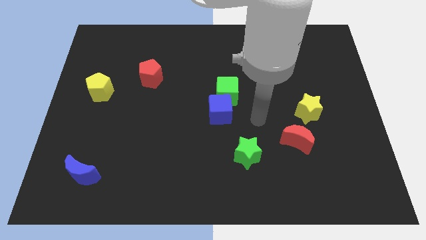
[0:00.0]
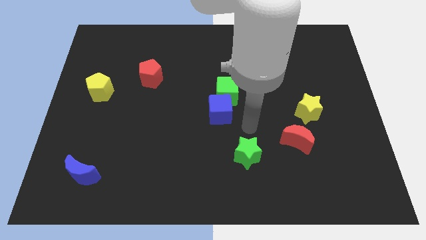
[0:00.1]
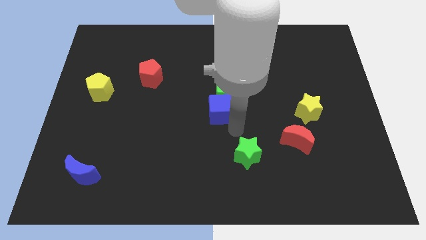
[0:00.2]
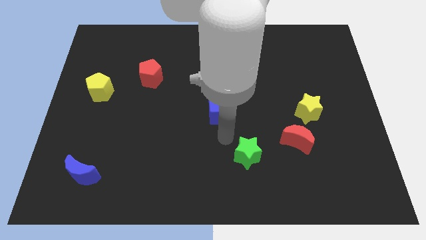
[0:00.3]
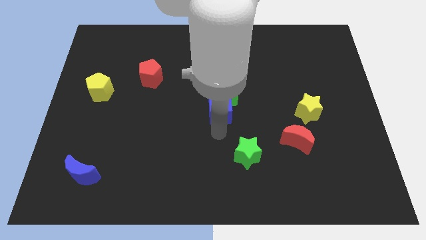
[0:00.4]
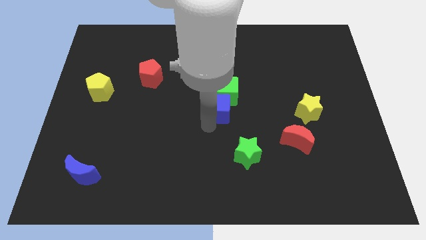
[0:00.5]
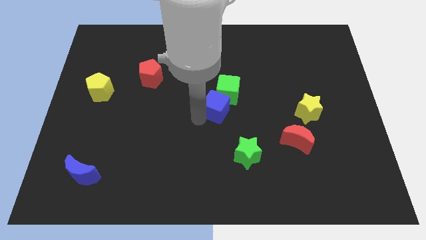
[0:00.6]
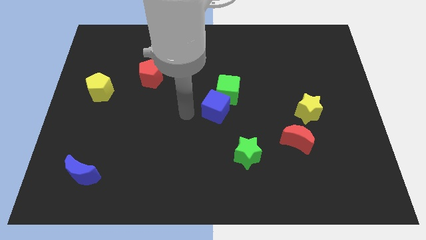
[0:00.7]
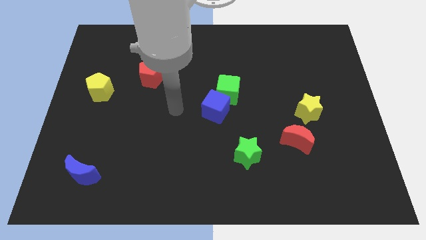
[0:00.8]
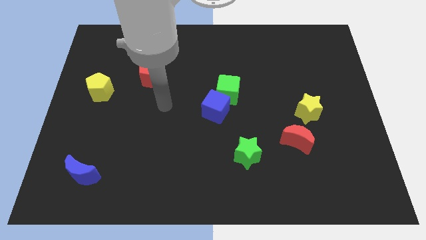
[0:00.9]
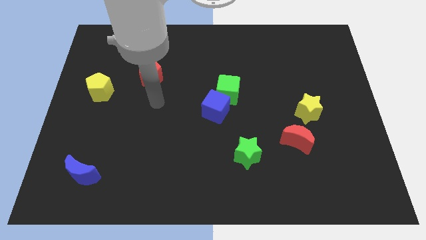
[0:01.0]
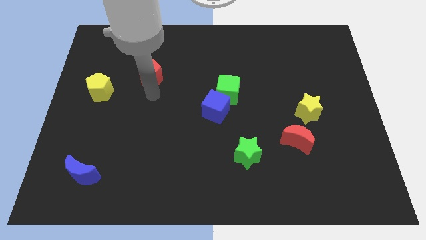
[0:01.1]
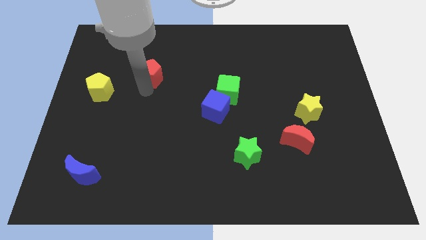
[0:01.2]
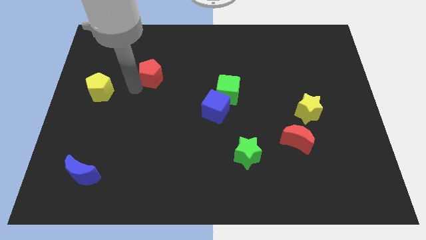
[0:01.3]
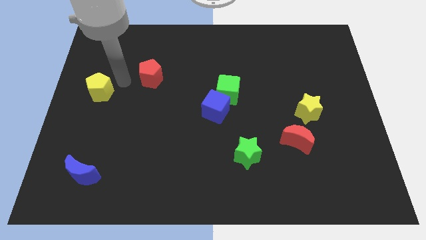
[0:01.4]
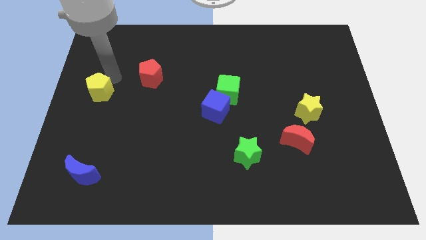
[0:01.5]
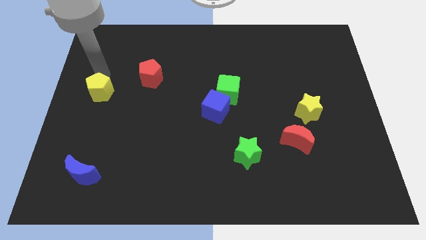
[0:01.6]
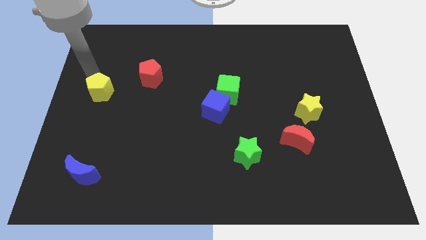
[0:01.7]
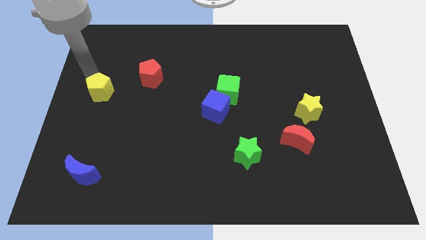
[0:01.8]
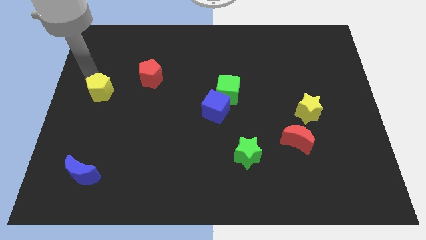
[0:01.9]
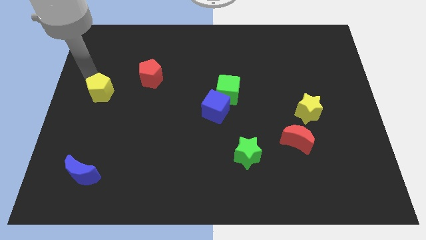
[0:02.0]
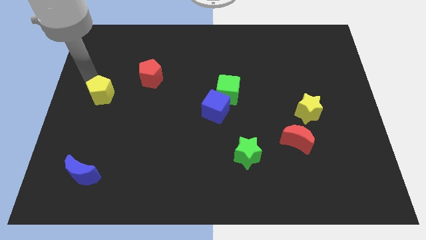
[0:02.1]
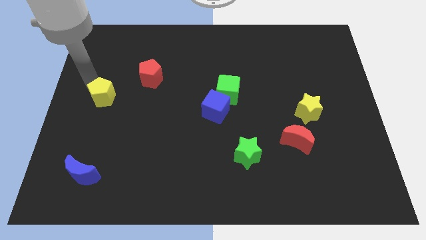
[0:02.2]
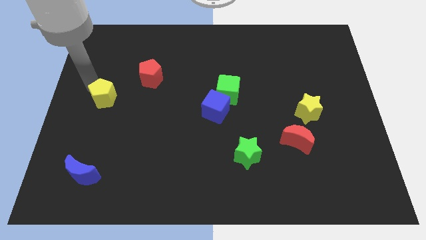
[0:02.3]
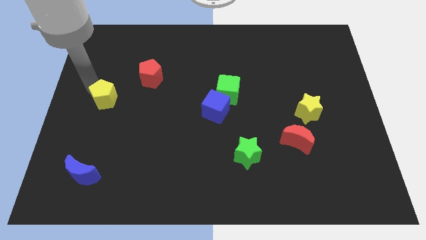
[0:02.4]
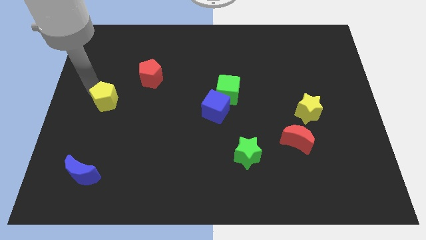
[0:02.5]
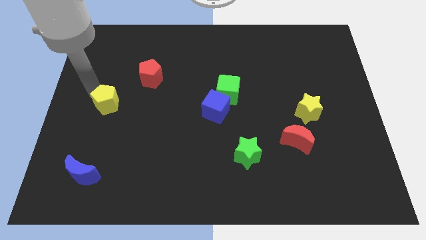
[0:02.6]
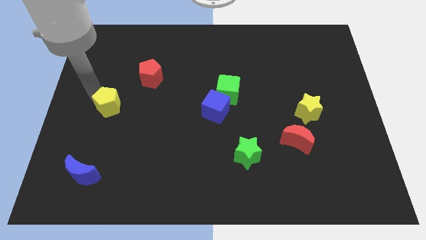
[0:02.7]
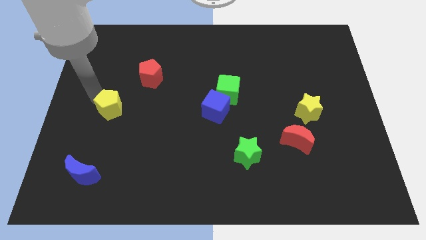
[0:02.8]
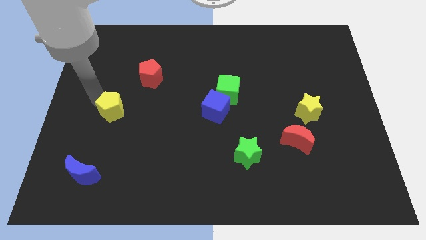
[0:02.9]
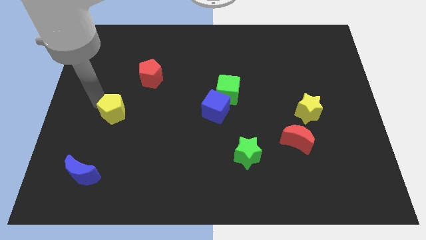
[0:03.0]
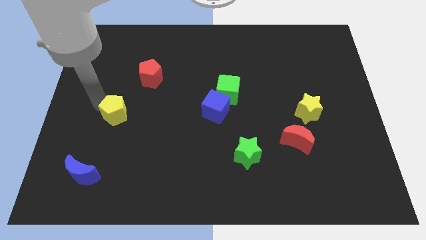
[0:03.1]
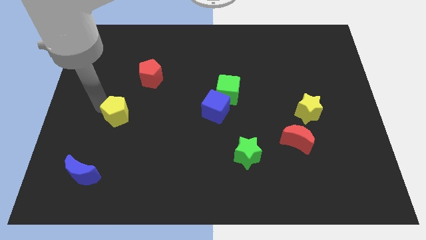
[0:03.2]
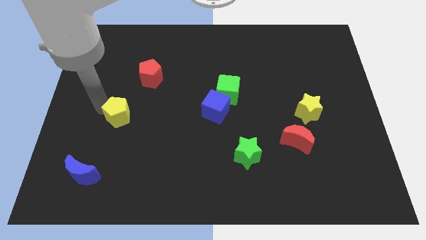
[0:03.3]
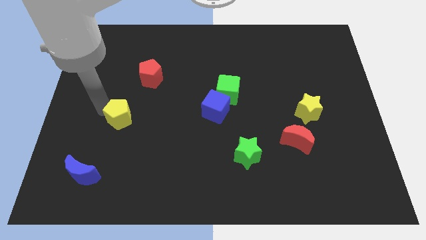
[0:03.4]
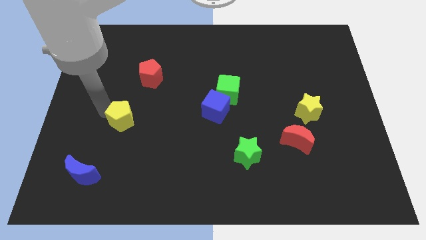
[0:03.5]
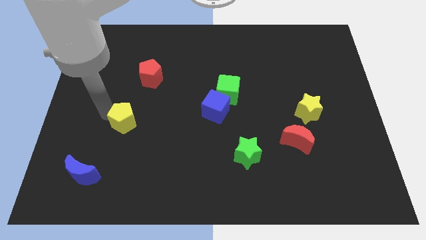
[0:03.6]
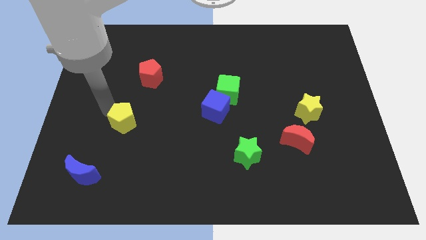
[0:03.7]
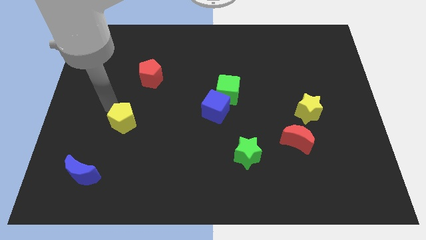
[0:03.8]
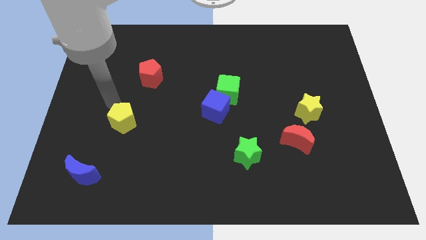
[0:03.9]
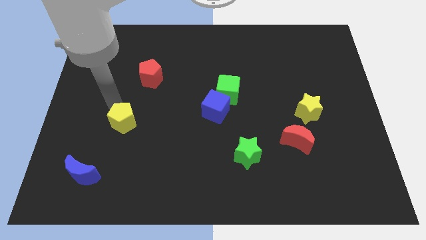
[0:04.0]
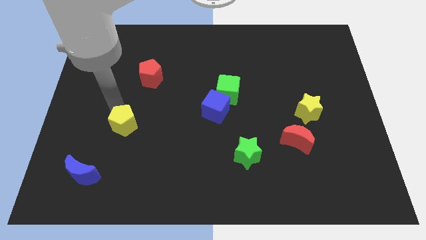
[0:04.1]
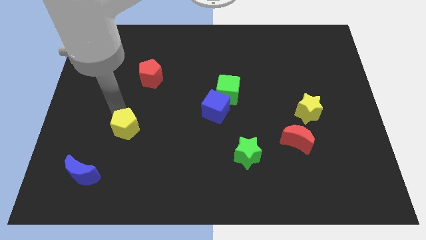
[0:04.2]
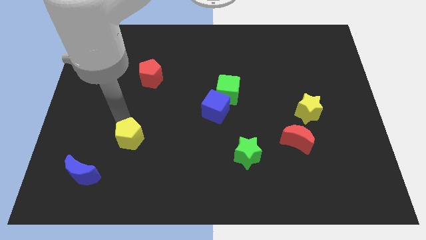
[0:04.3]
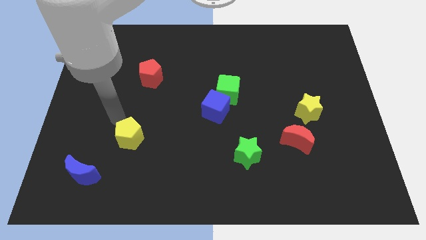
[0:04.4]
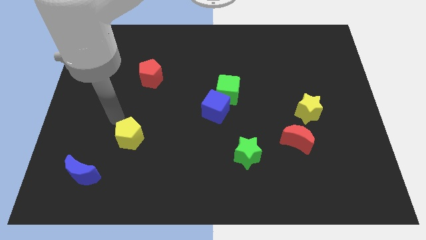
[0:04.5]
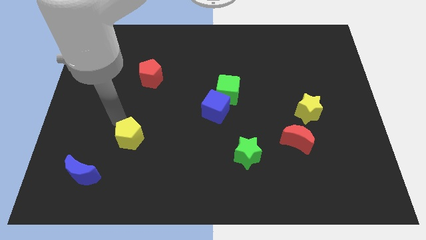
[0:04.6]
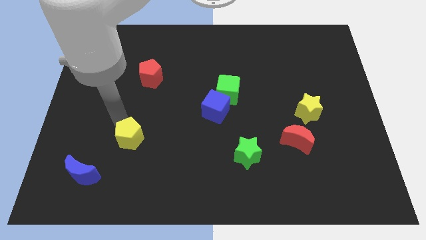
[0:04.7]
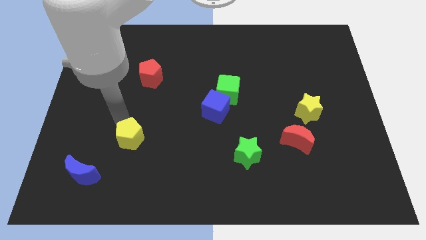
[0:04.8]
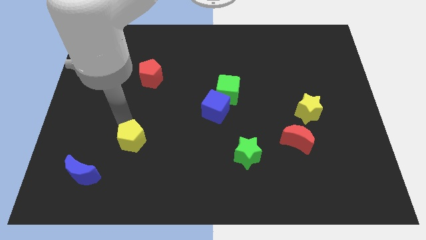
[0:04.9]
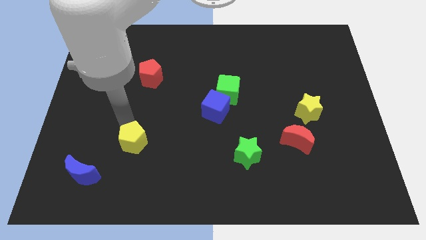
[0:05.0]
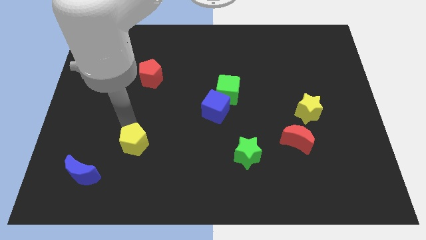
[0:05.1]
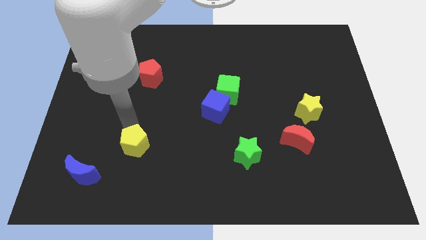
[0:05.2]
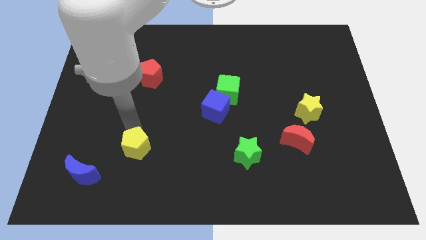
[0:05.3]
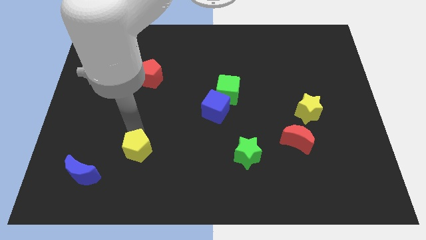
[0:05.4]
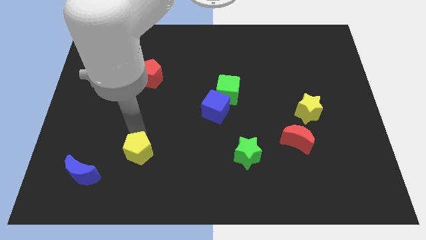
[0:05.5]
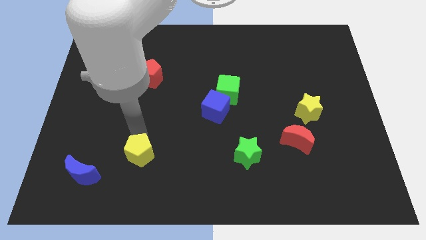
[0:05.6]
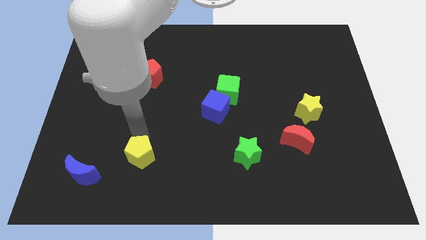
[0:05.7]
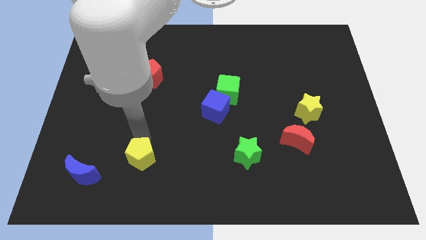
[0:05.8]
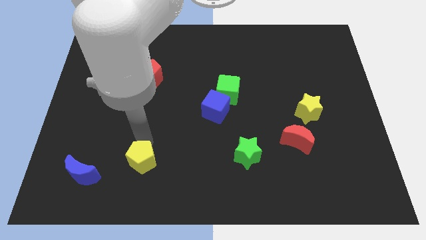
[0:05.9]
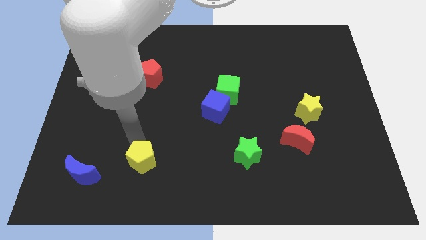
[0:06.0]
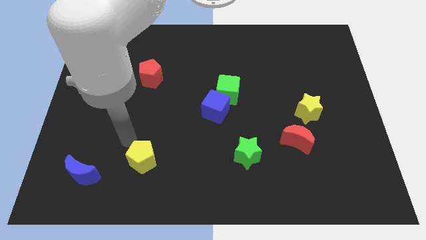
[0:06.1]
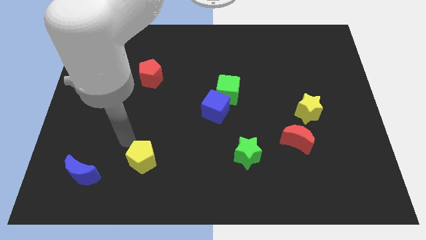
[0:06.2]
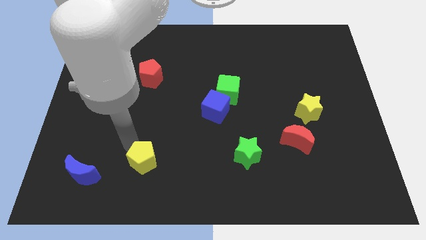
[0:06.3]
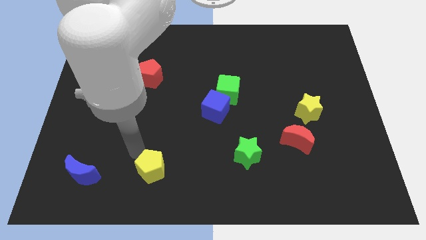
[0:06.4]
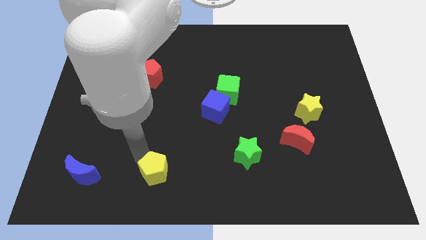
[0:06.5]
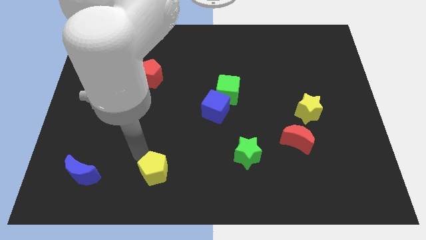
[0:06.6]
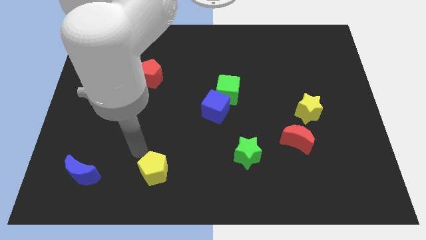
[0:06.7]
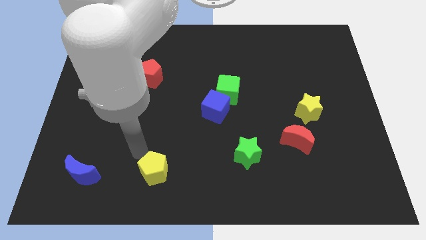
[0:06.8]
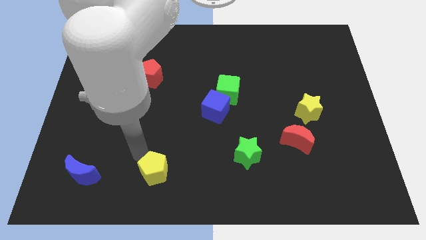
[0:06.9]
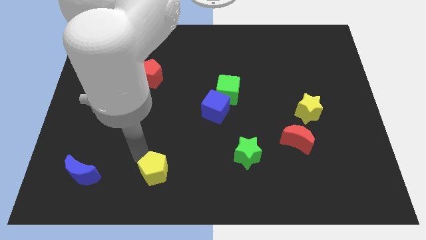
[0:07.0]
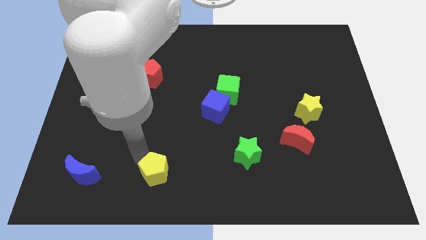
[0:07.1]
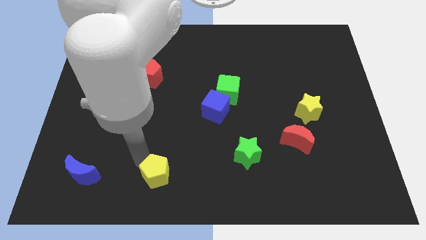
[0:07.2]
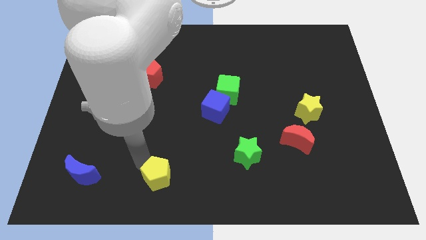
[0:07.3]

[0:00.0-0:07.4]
move the yellow pentagon to the bottom side
